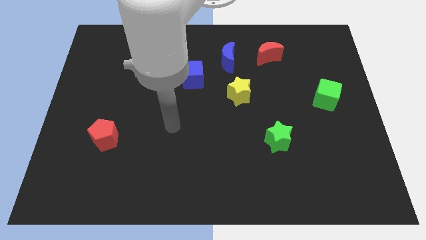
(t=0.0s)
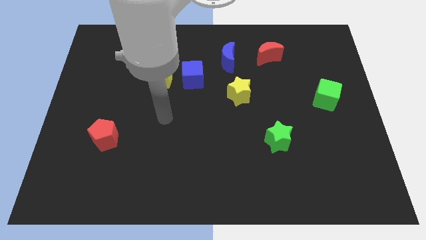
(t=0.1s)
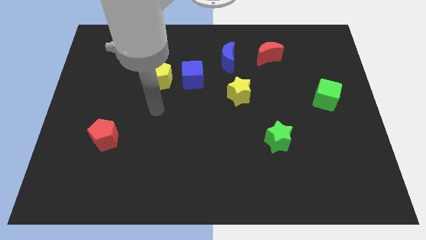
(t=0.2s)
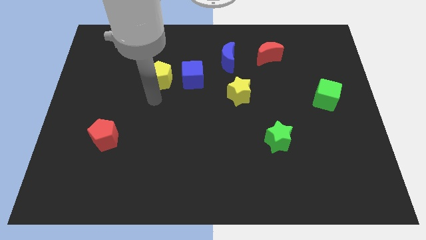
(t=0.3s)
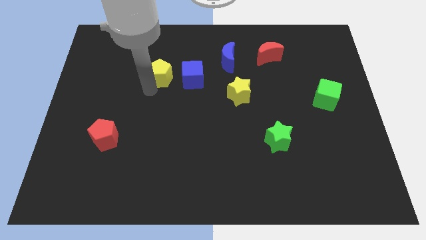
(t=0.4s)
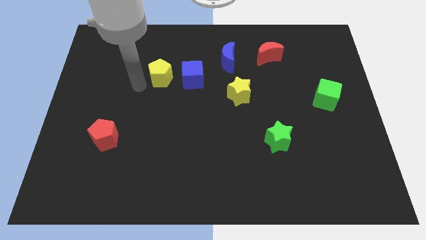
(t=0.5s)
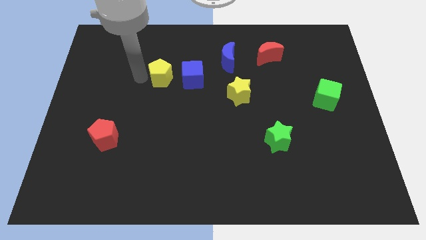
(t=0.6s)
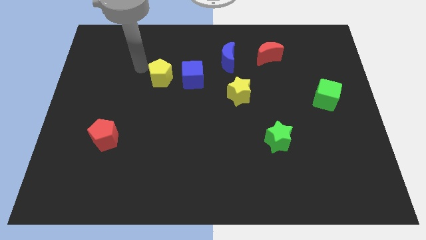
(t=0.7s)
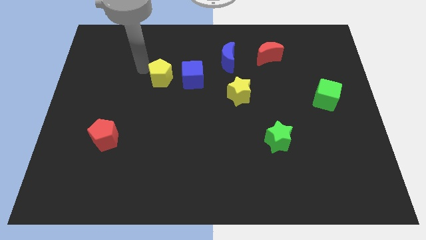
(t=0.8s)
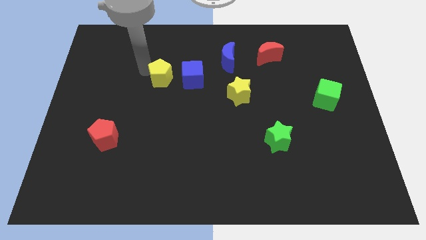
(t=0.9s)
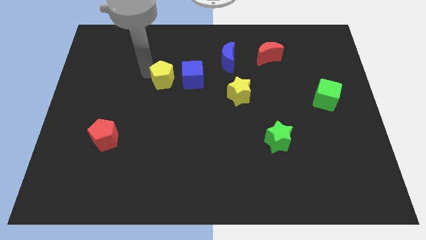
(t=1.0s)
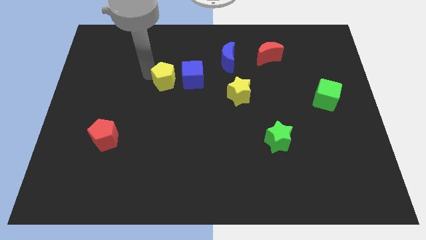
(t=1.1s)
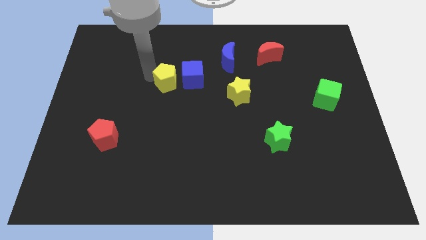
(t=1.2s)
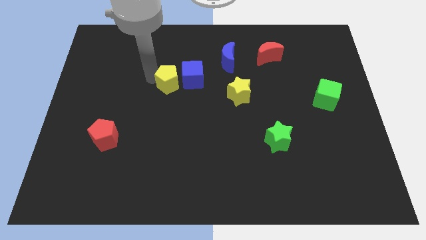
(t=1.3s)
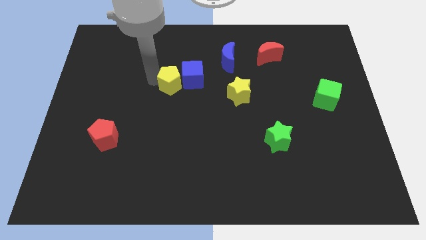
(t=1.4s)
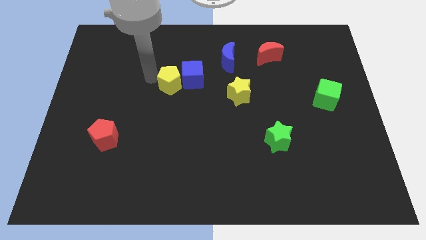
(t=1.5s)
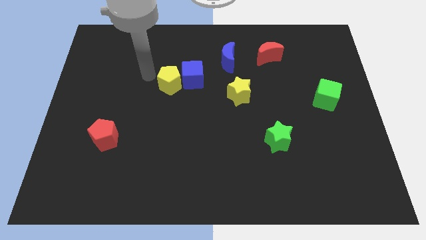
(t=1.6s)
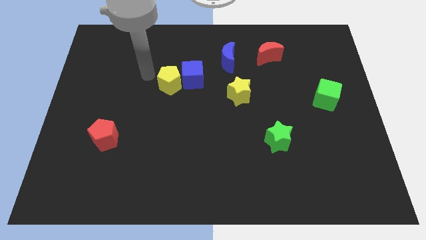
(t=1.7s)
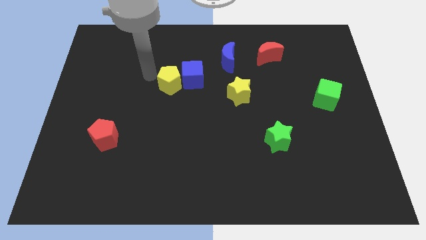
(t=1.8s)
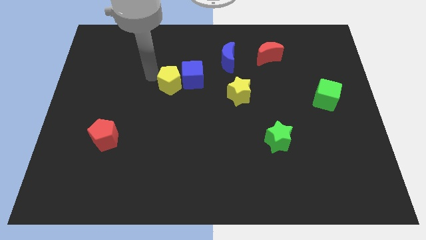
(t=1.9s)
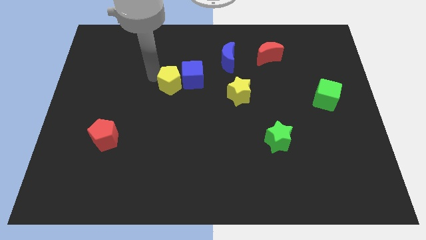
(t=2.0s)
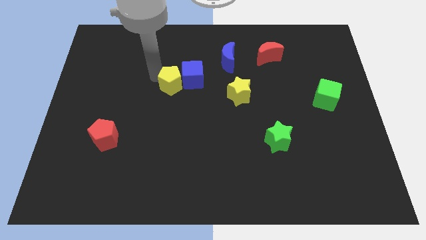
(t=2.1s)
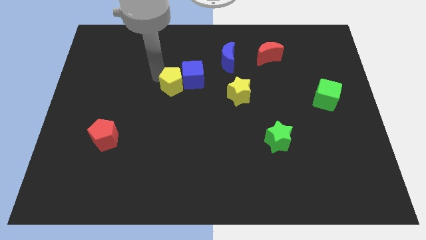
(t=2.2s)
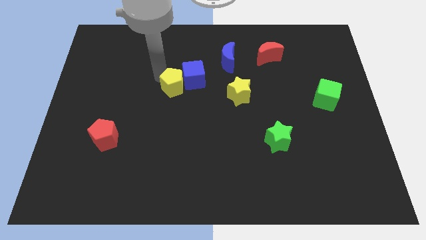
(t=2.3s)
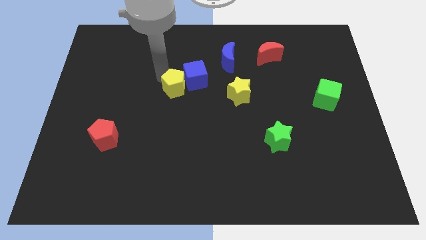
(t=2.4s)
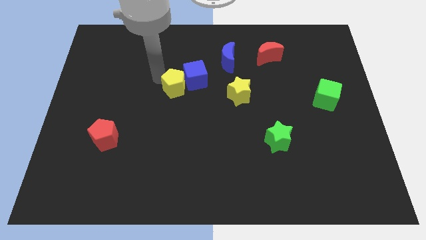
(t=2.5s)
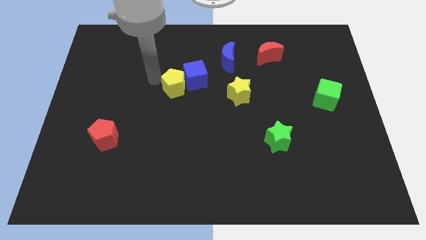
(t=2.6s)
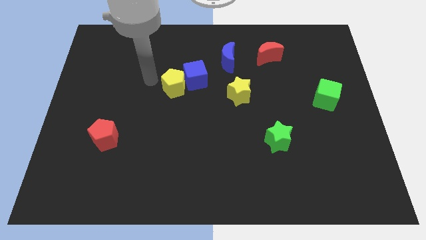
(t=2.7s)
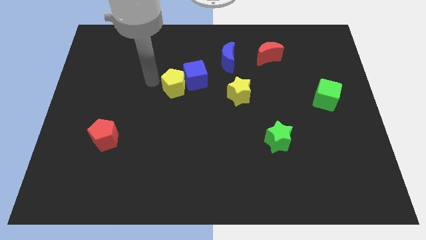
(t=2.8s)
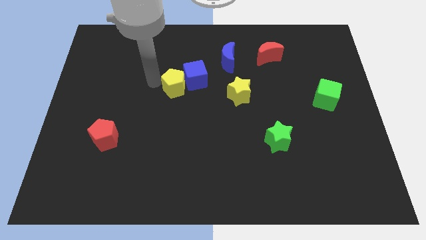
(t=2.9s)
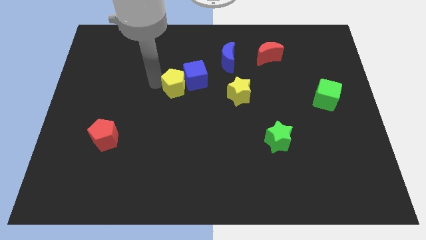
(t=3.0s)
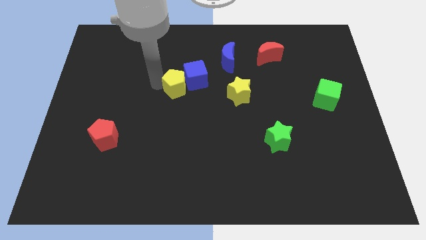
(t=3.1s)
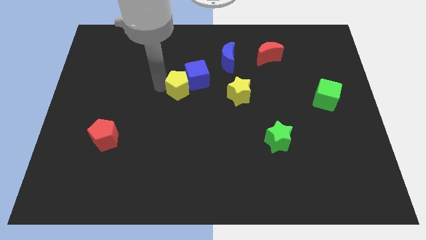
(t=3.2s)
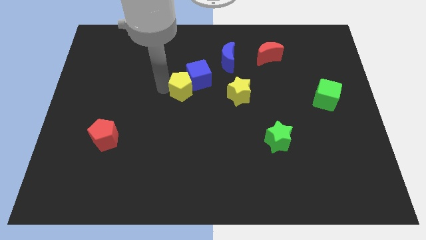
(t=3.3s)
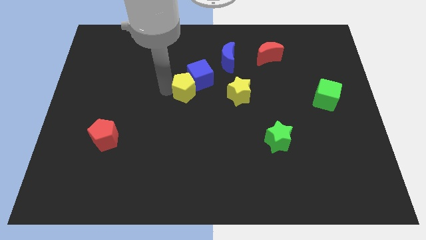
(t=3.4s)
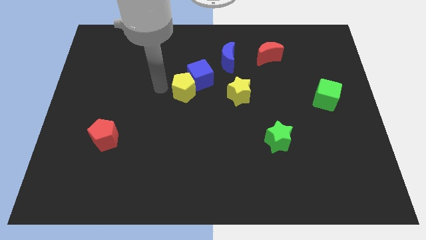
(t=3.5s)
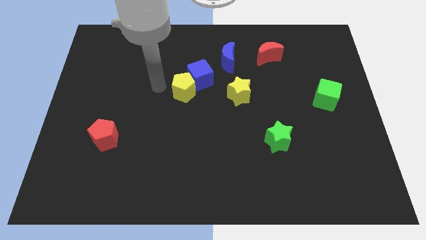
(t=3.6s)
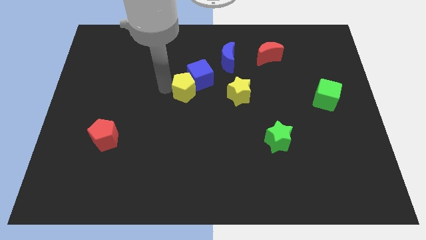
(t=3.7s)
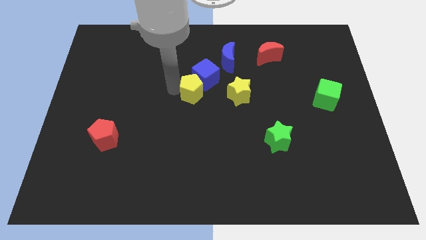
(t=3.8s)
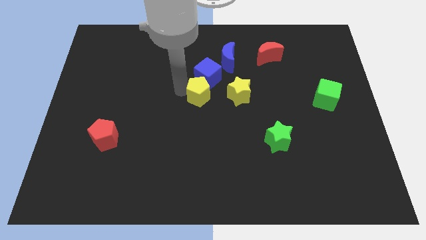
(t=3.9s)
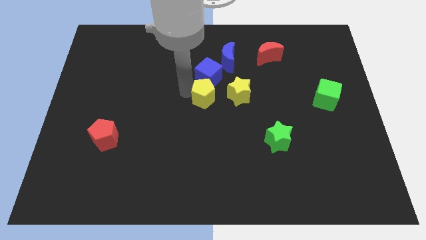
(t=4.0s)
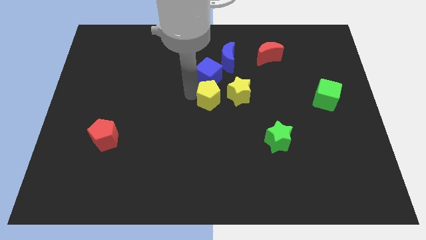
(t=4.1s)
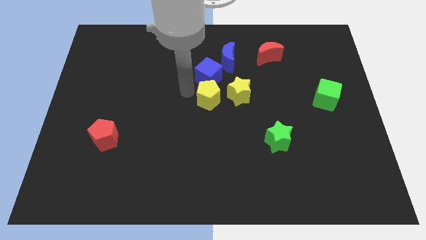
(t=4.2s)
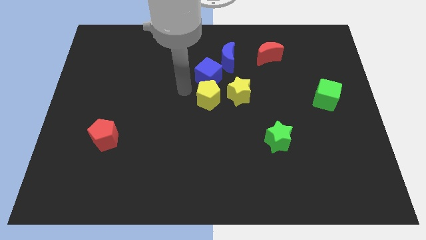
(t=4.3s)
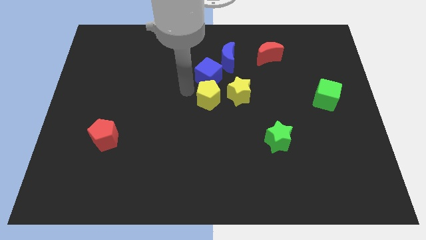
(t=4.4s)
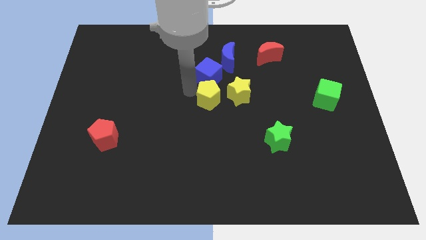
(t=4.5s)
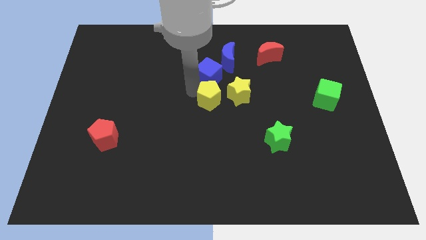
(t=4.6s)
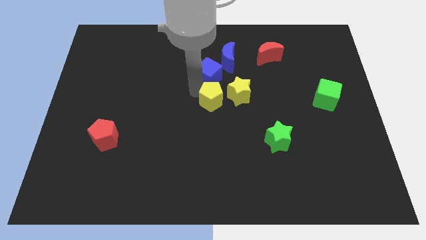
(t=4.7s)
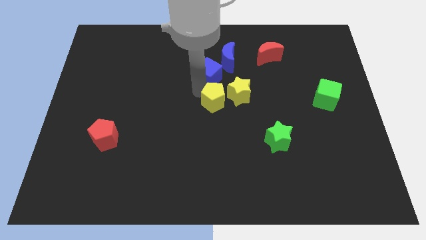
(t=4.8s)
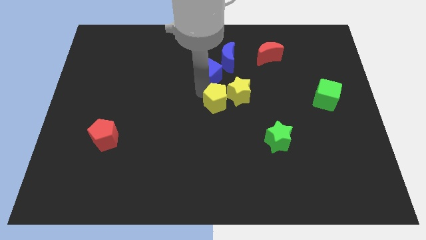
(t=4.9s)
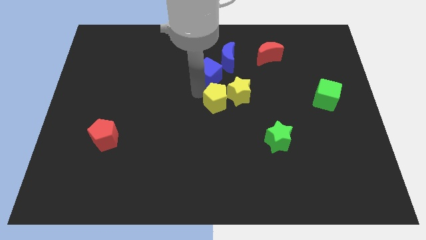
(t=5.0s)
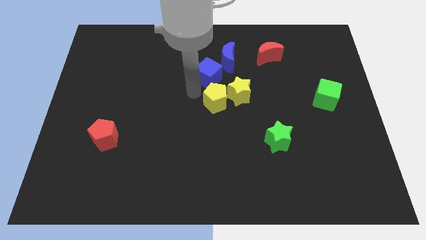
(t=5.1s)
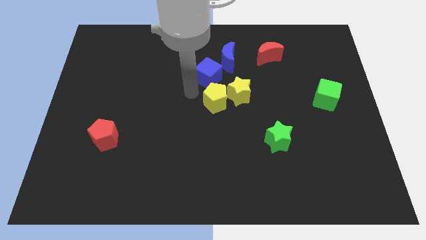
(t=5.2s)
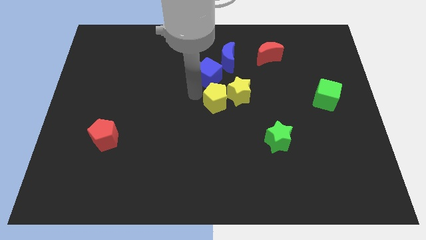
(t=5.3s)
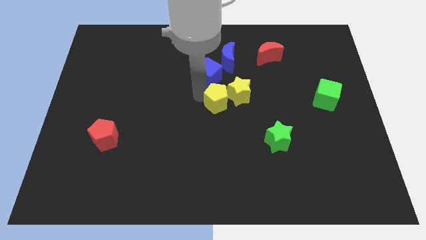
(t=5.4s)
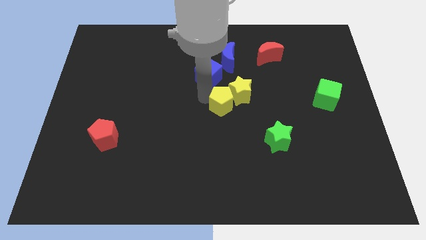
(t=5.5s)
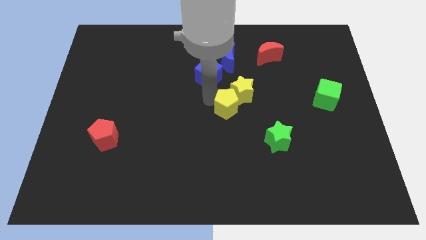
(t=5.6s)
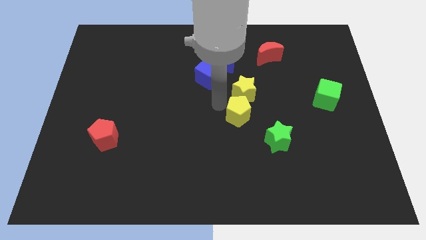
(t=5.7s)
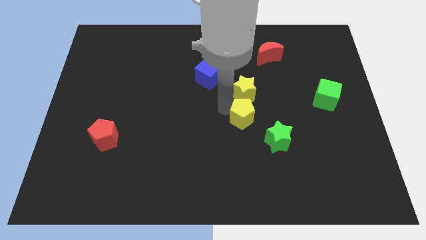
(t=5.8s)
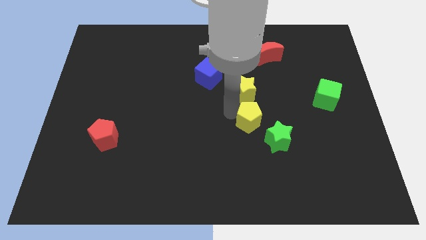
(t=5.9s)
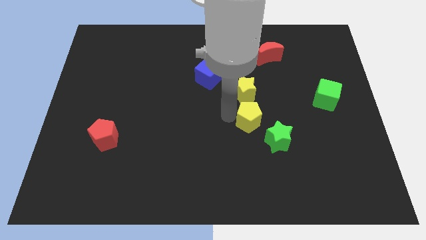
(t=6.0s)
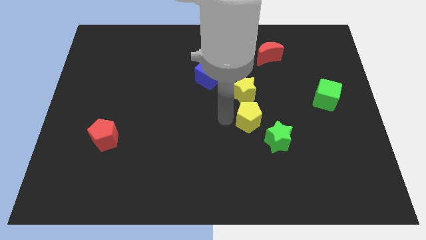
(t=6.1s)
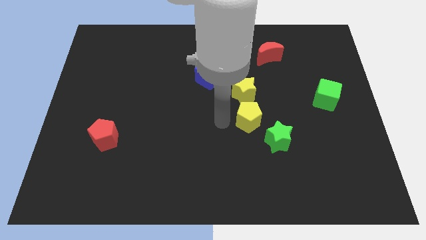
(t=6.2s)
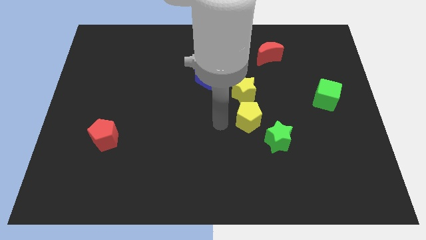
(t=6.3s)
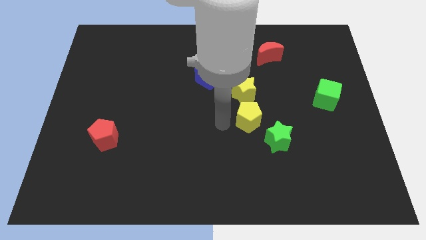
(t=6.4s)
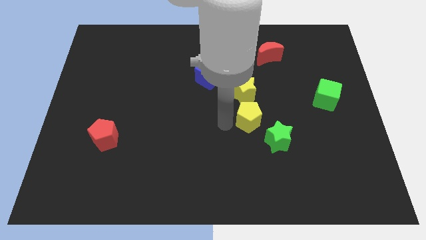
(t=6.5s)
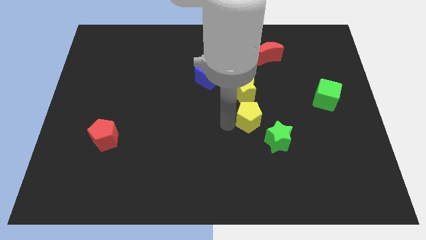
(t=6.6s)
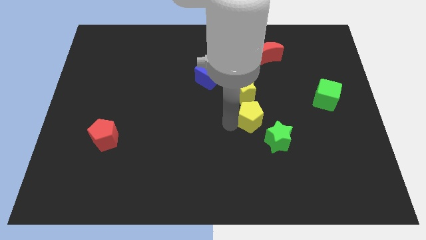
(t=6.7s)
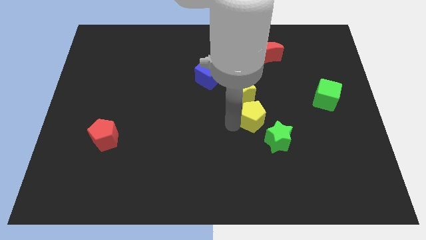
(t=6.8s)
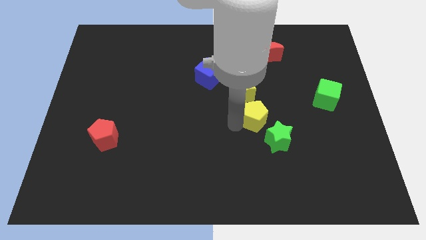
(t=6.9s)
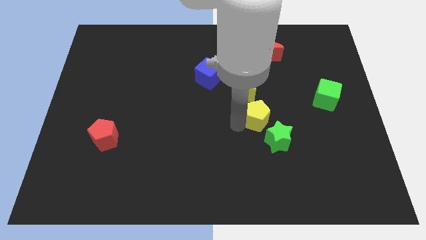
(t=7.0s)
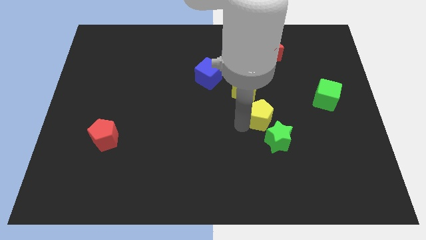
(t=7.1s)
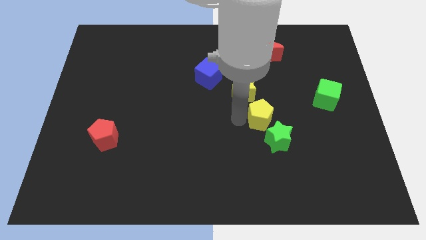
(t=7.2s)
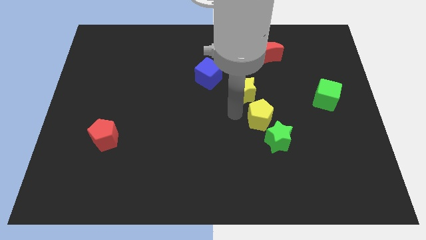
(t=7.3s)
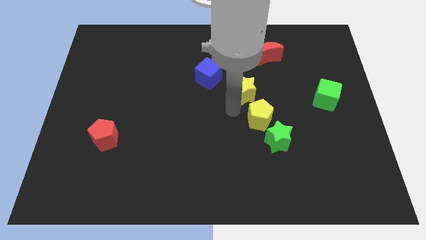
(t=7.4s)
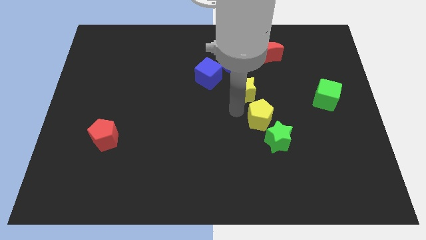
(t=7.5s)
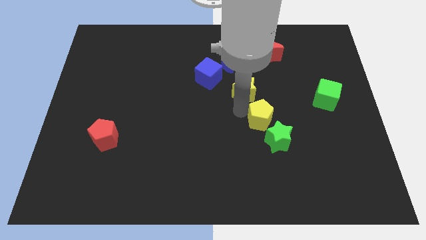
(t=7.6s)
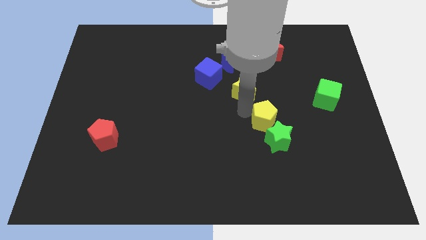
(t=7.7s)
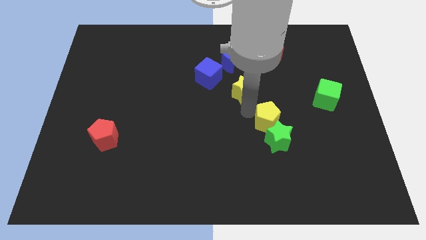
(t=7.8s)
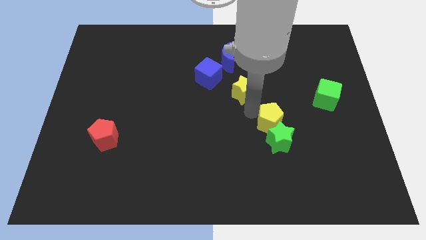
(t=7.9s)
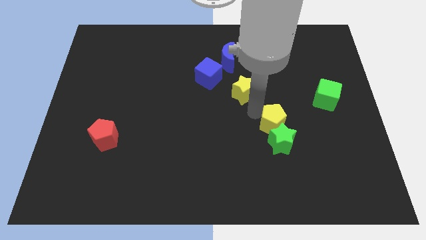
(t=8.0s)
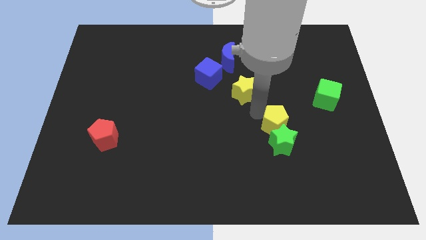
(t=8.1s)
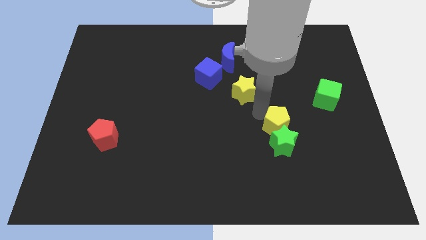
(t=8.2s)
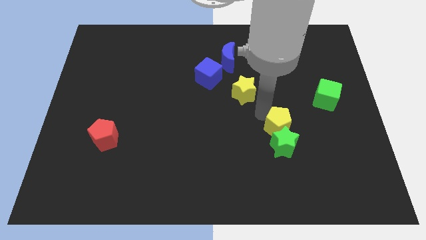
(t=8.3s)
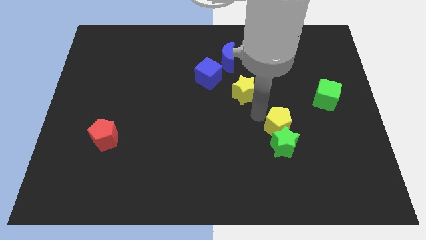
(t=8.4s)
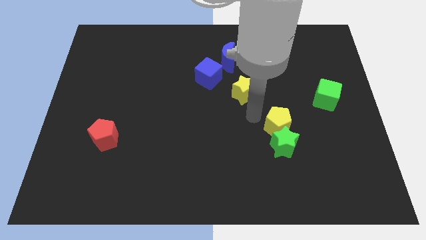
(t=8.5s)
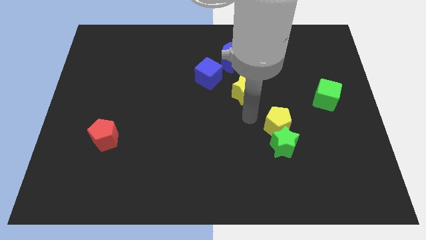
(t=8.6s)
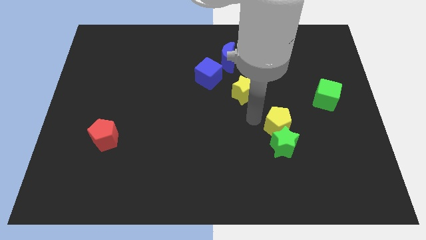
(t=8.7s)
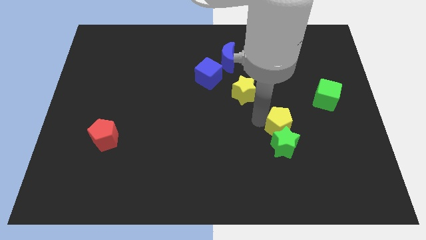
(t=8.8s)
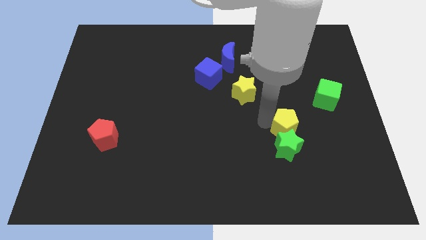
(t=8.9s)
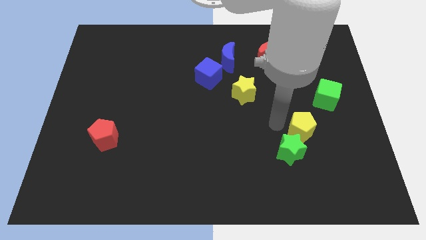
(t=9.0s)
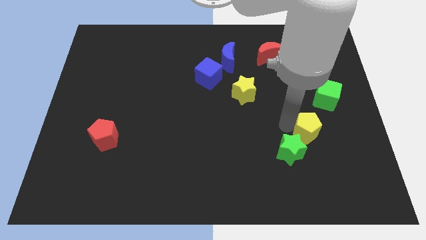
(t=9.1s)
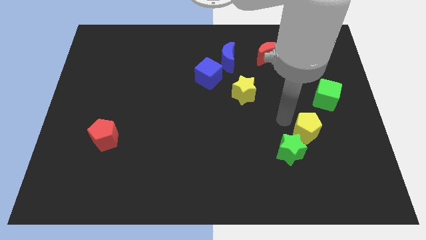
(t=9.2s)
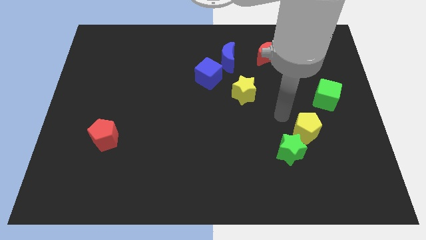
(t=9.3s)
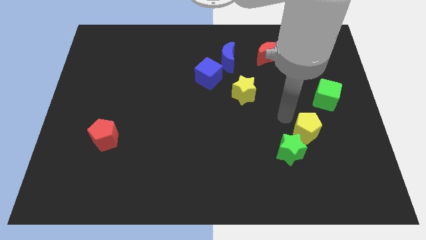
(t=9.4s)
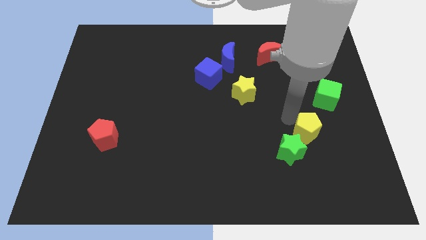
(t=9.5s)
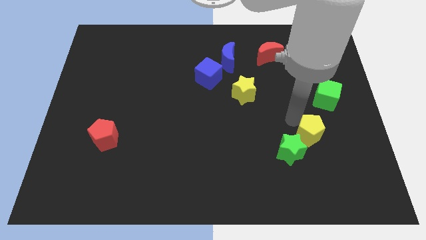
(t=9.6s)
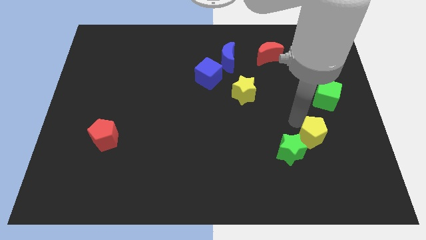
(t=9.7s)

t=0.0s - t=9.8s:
slide the yellow pentagon just right of the green star
